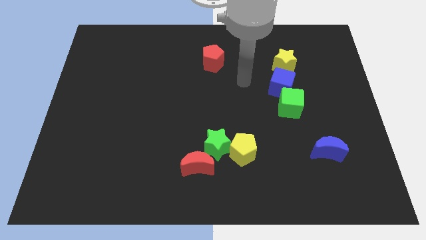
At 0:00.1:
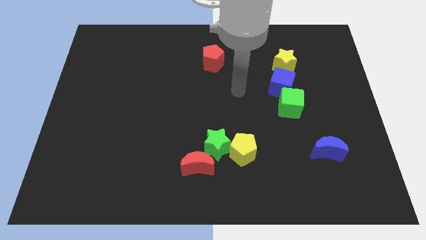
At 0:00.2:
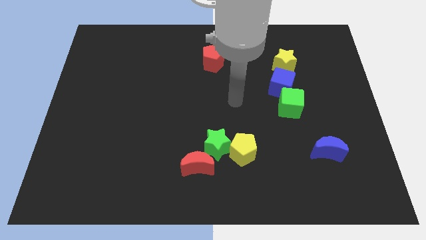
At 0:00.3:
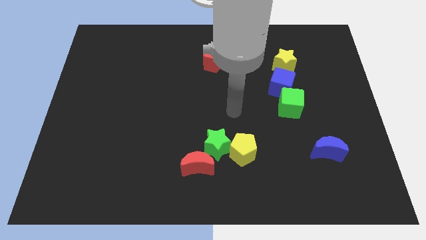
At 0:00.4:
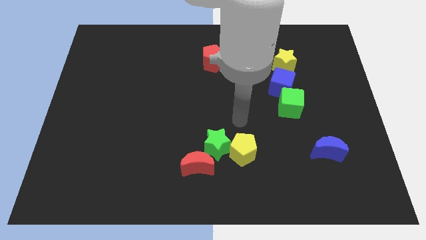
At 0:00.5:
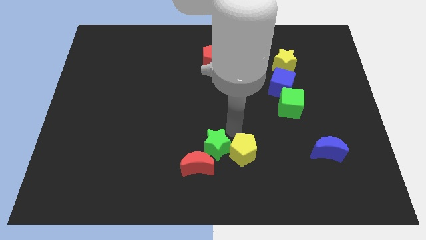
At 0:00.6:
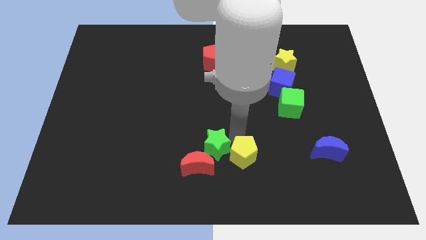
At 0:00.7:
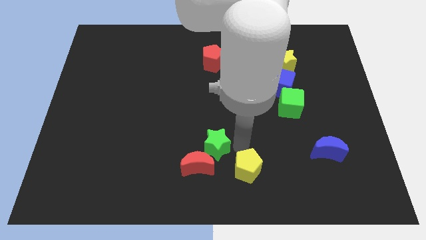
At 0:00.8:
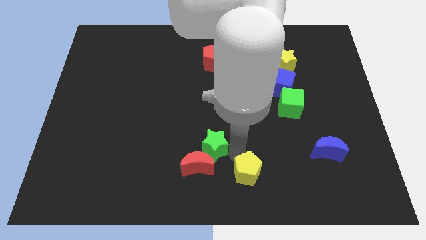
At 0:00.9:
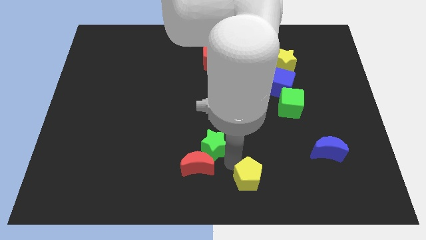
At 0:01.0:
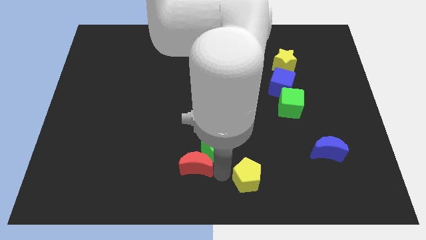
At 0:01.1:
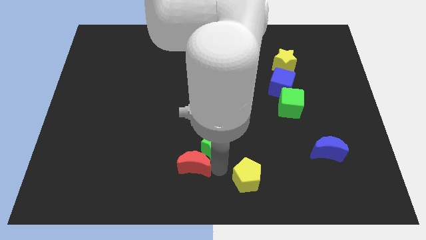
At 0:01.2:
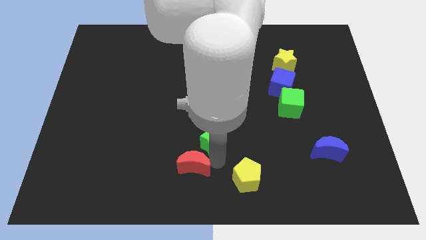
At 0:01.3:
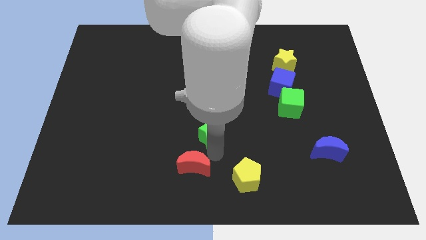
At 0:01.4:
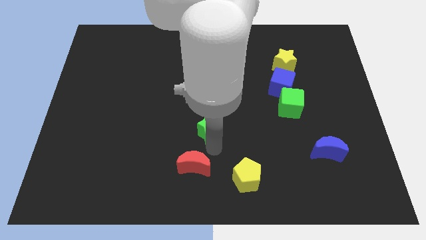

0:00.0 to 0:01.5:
move the green star away from the yellow pentagon and red moon

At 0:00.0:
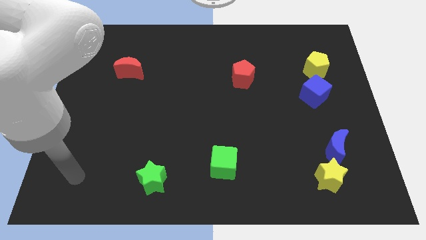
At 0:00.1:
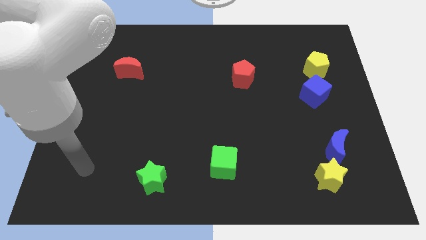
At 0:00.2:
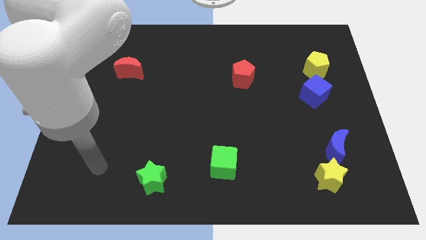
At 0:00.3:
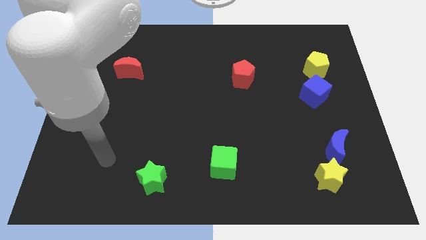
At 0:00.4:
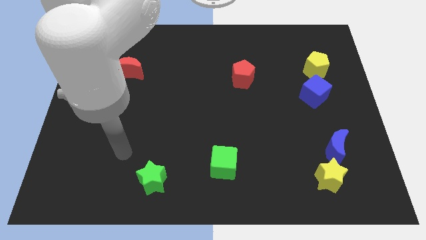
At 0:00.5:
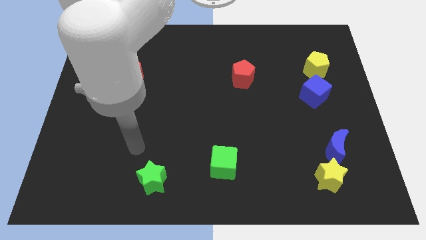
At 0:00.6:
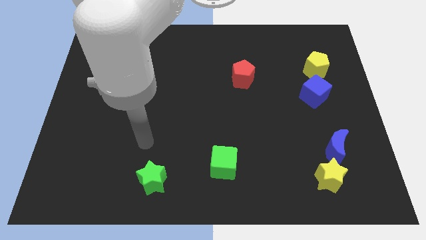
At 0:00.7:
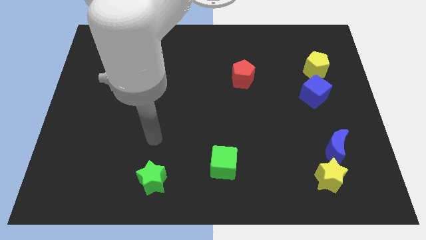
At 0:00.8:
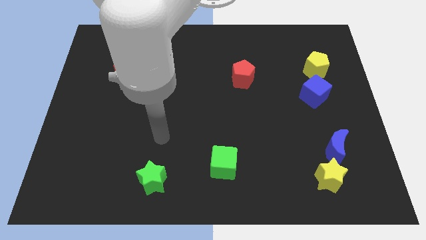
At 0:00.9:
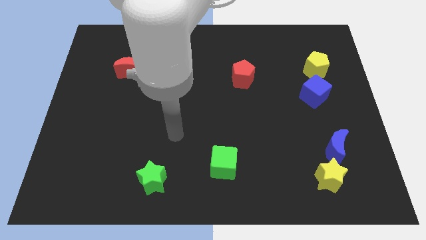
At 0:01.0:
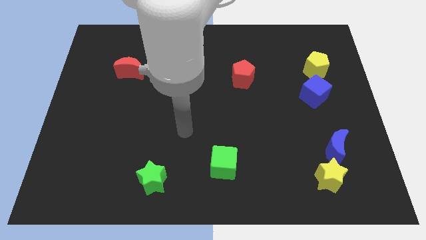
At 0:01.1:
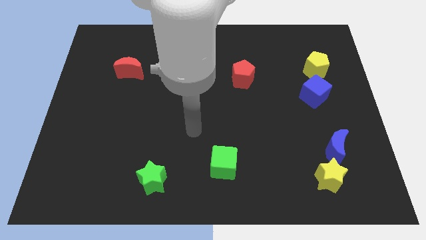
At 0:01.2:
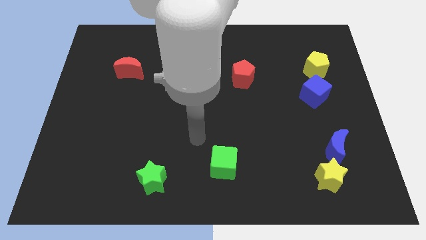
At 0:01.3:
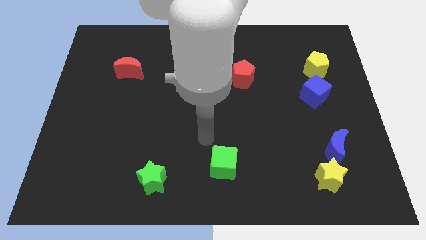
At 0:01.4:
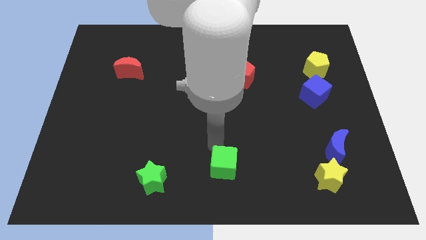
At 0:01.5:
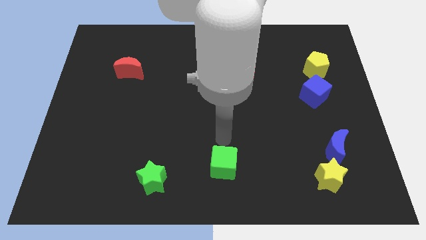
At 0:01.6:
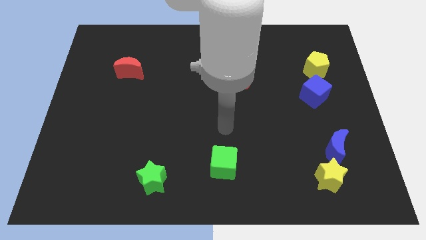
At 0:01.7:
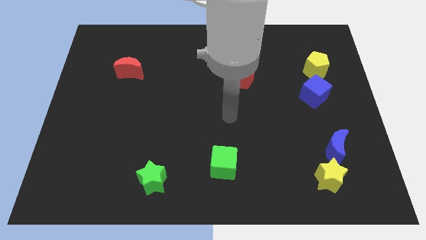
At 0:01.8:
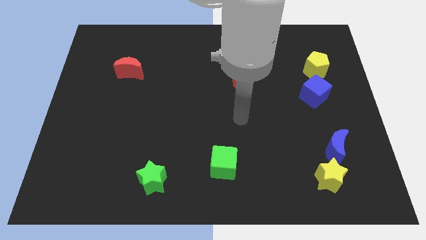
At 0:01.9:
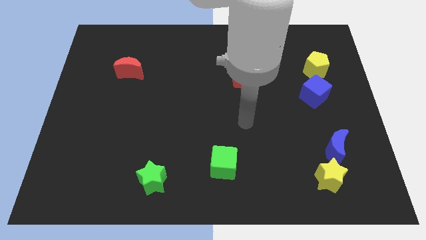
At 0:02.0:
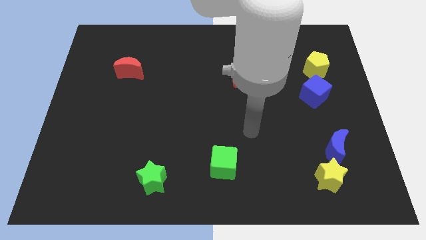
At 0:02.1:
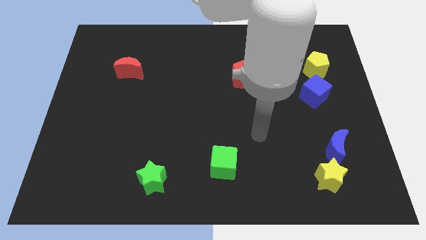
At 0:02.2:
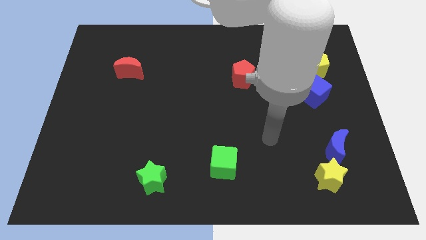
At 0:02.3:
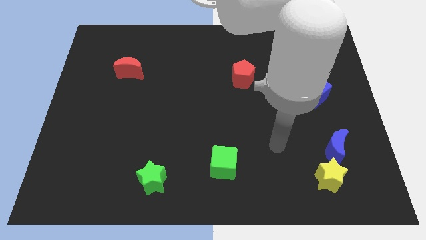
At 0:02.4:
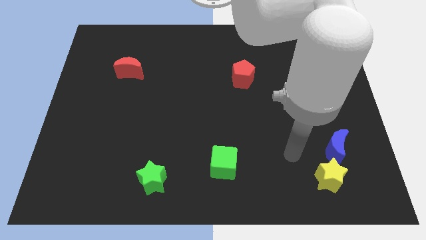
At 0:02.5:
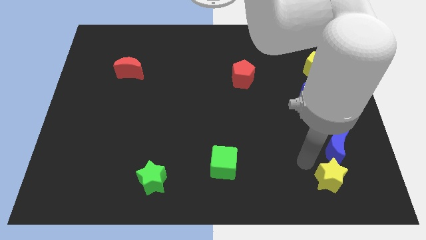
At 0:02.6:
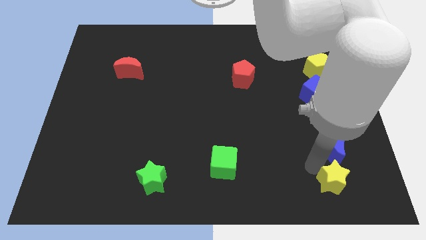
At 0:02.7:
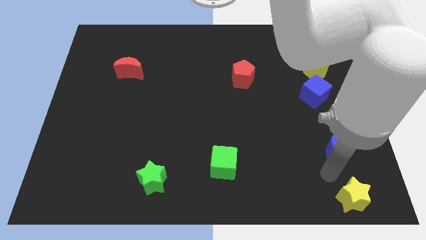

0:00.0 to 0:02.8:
move the blue moon away from the yellow star

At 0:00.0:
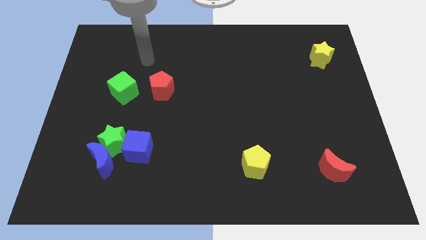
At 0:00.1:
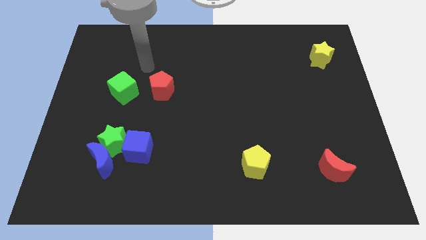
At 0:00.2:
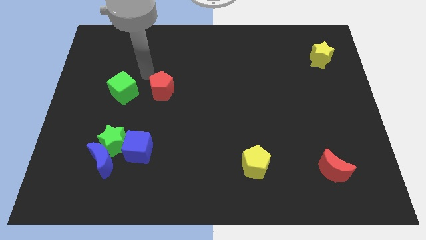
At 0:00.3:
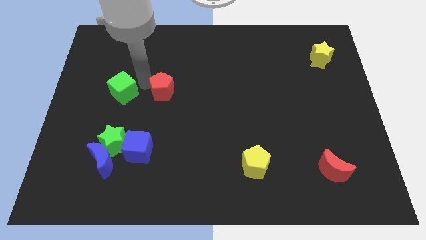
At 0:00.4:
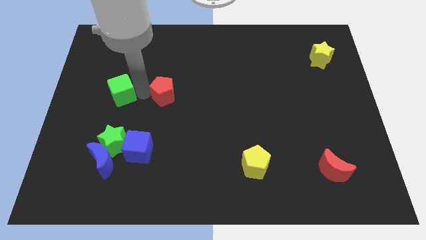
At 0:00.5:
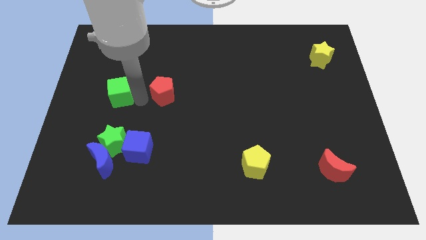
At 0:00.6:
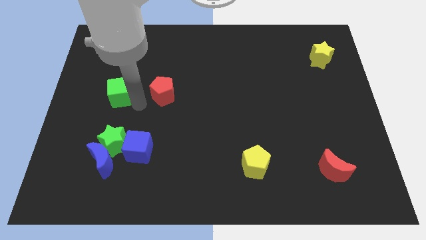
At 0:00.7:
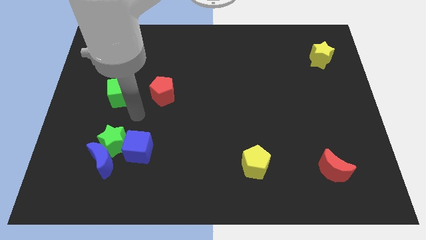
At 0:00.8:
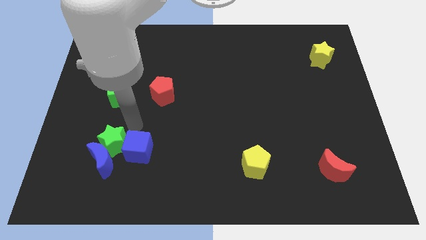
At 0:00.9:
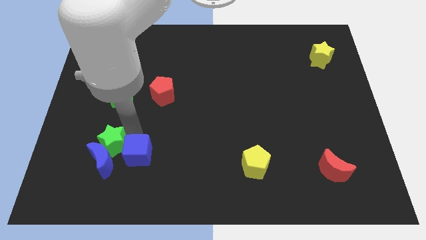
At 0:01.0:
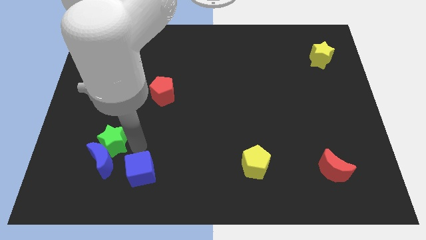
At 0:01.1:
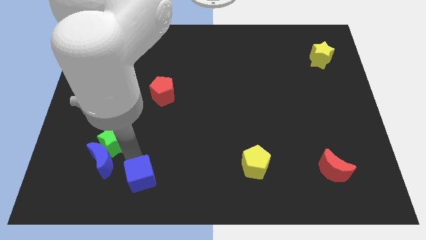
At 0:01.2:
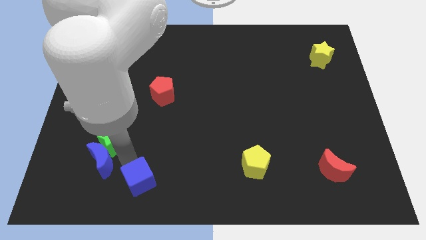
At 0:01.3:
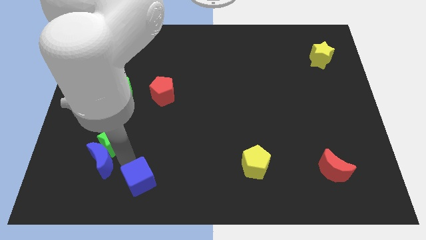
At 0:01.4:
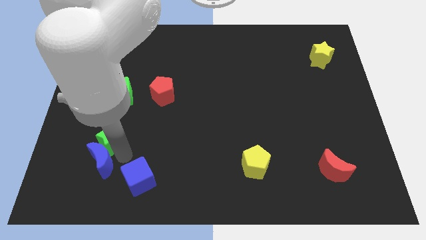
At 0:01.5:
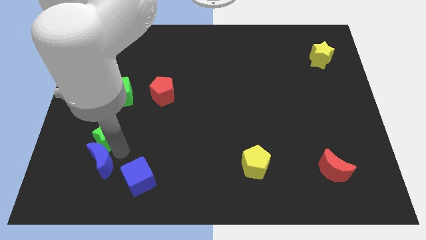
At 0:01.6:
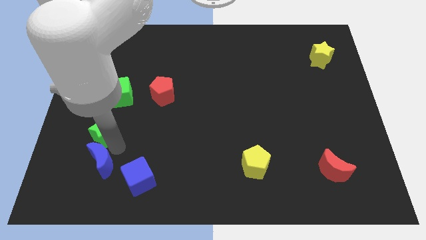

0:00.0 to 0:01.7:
pull the green star apart from the blue moon and blue cube

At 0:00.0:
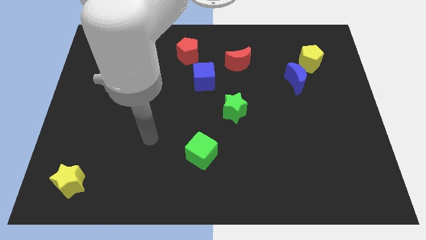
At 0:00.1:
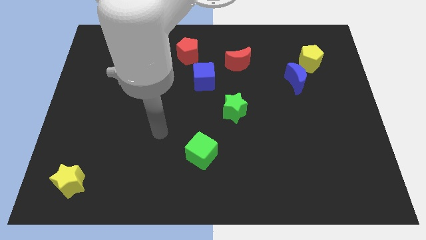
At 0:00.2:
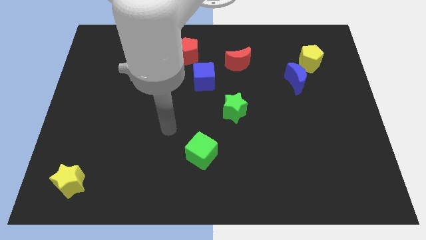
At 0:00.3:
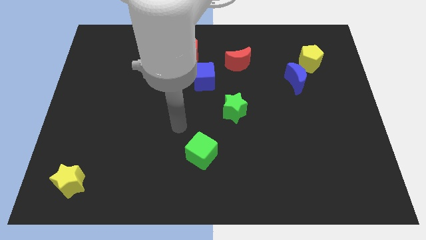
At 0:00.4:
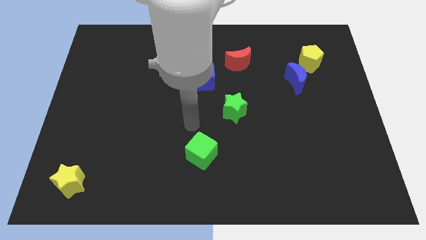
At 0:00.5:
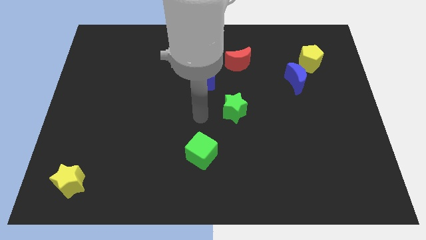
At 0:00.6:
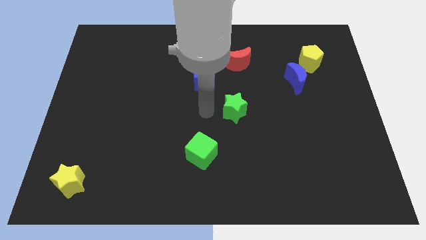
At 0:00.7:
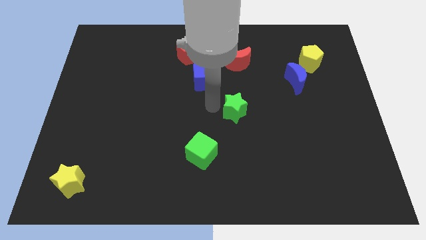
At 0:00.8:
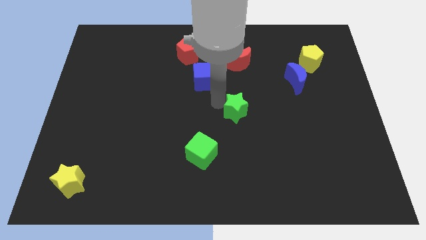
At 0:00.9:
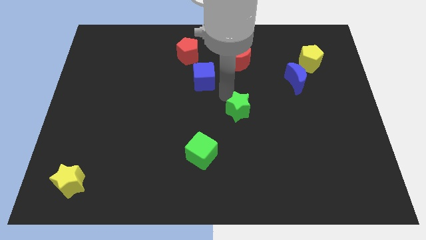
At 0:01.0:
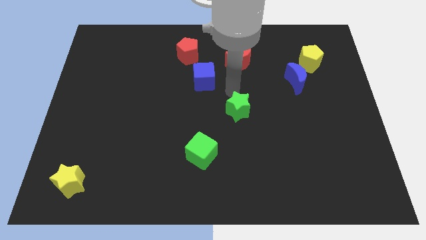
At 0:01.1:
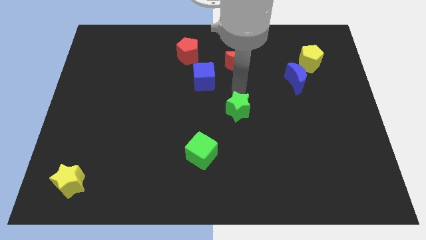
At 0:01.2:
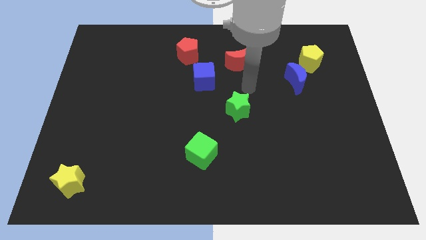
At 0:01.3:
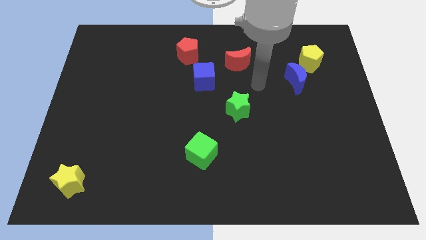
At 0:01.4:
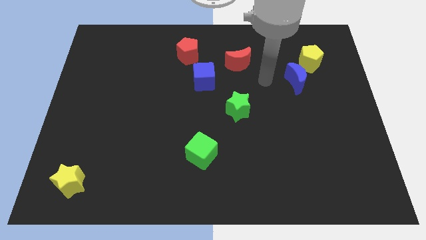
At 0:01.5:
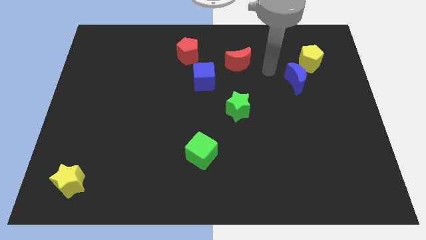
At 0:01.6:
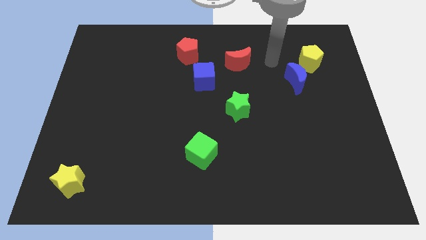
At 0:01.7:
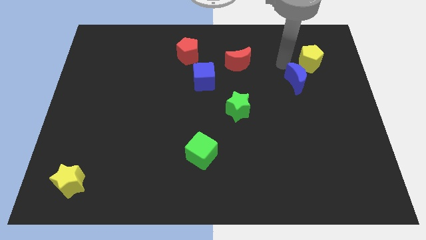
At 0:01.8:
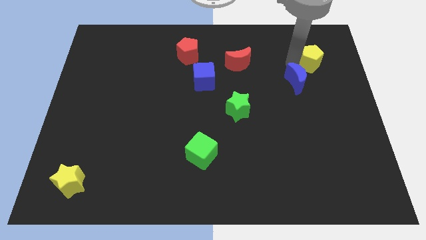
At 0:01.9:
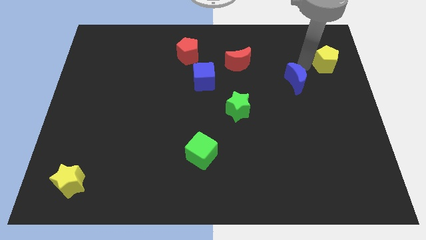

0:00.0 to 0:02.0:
separate the blue moon from the yellow pentagon

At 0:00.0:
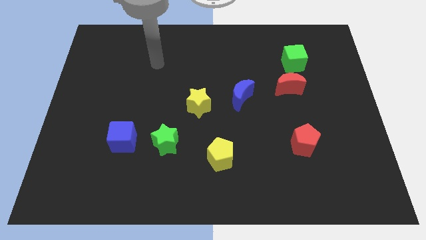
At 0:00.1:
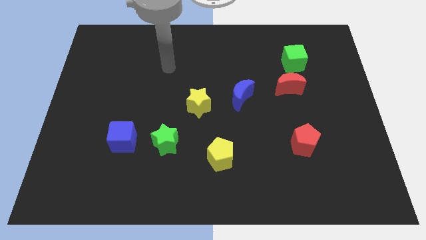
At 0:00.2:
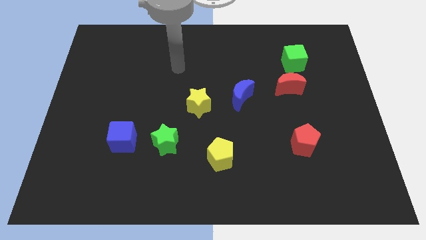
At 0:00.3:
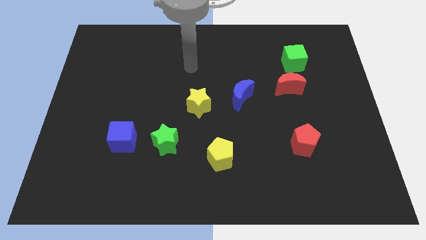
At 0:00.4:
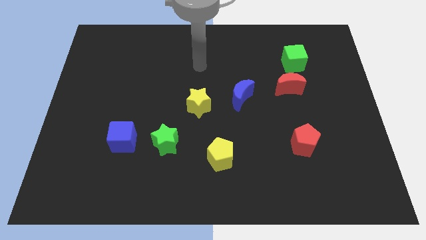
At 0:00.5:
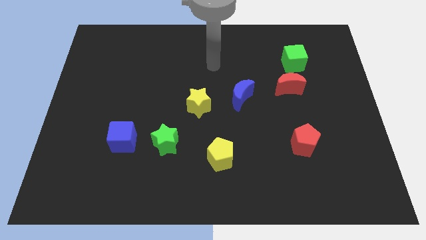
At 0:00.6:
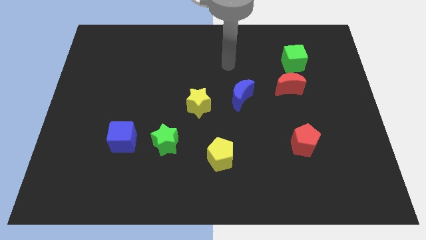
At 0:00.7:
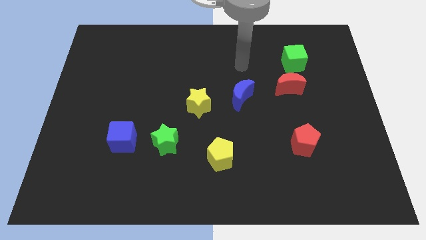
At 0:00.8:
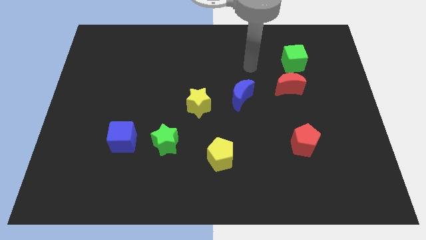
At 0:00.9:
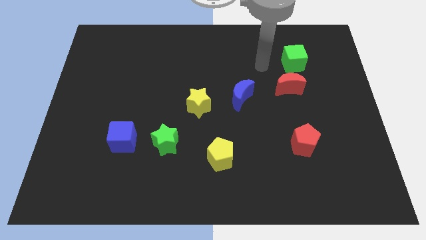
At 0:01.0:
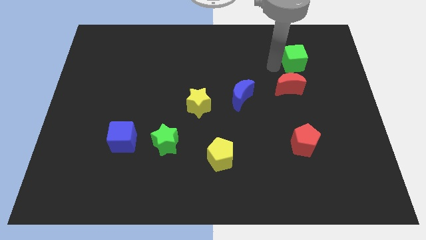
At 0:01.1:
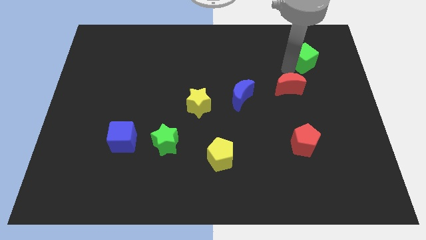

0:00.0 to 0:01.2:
separate the red moon from the green cube

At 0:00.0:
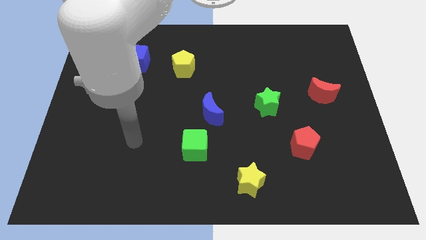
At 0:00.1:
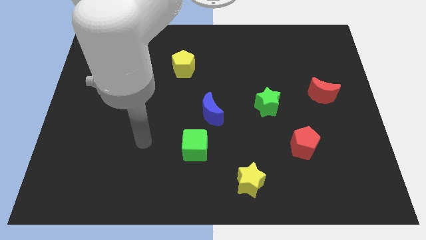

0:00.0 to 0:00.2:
pull the blue moon apart from the green cube

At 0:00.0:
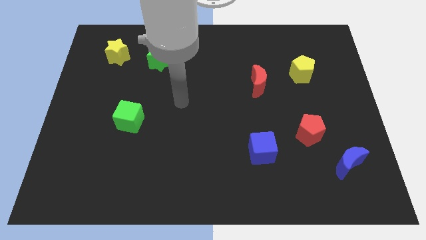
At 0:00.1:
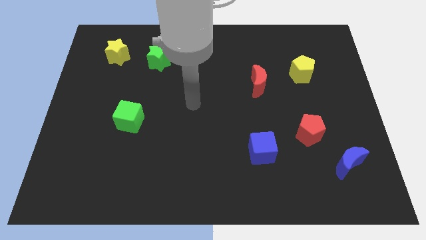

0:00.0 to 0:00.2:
separate the red pentagon from the blue moon
